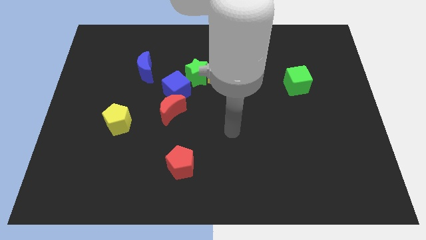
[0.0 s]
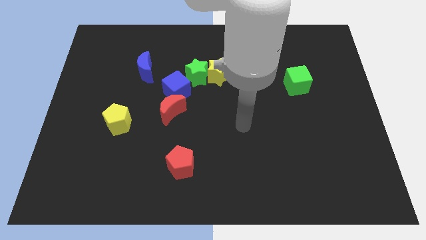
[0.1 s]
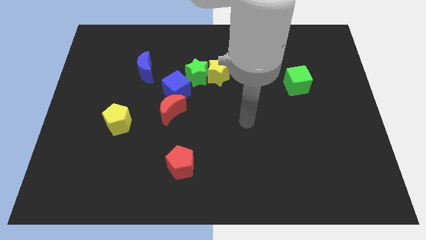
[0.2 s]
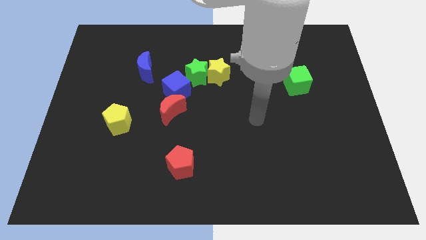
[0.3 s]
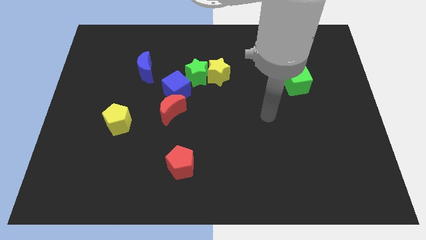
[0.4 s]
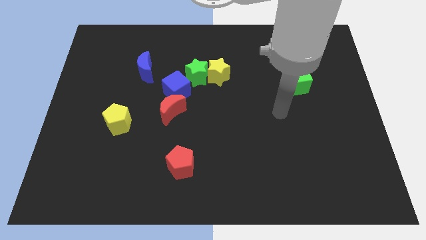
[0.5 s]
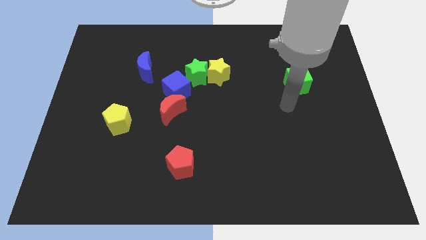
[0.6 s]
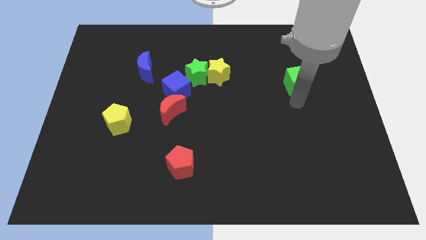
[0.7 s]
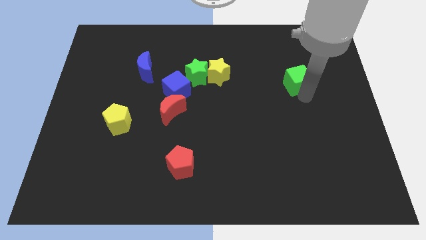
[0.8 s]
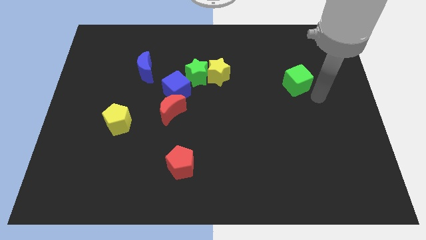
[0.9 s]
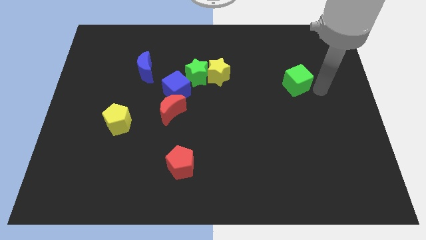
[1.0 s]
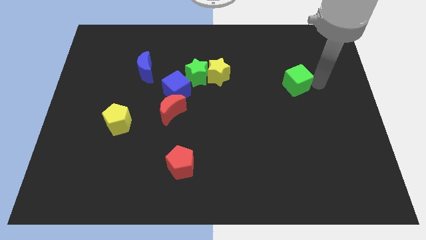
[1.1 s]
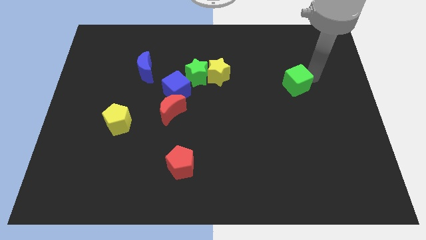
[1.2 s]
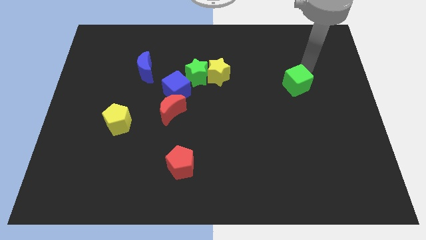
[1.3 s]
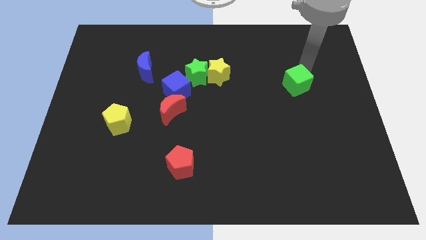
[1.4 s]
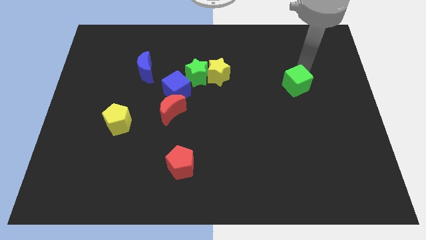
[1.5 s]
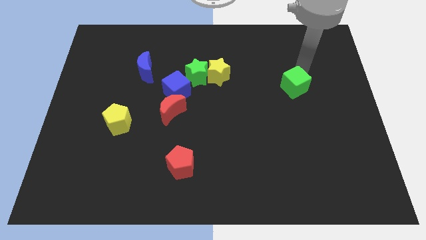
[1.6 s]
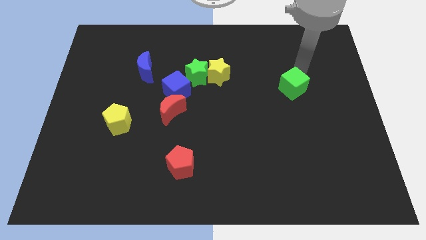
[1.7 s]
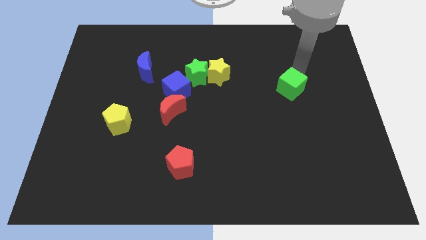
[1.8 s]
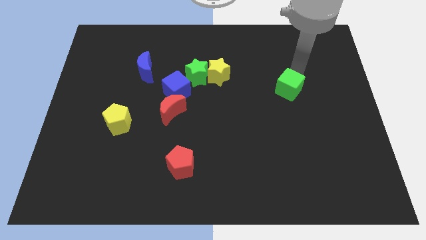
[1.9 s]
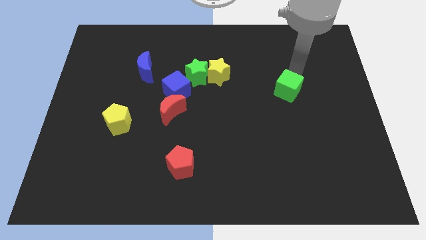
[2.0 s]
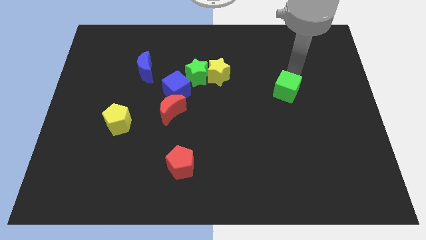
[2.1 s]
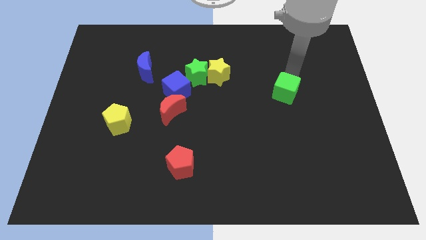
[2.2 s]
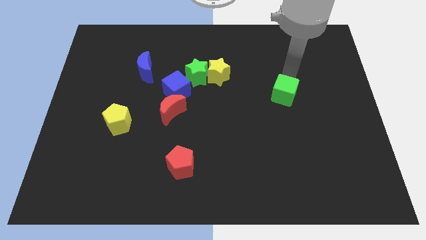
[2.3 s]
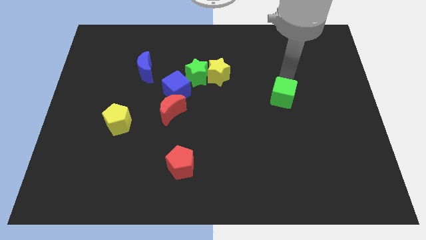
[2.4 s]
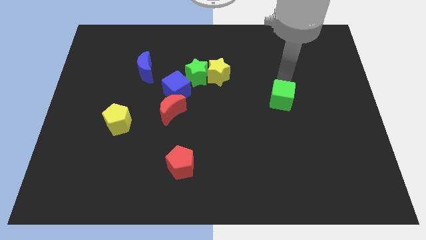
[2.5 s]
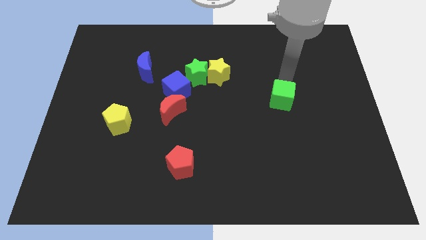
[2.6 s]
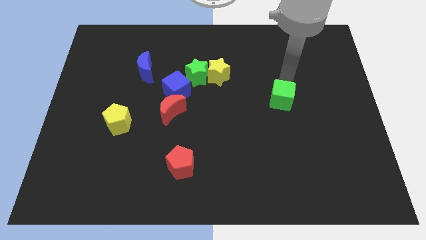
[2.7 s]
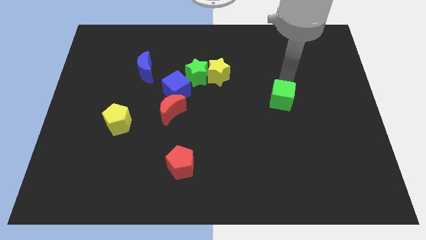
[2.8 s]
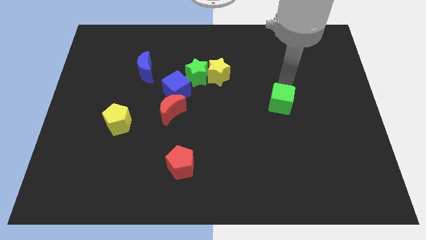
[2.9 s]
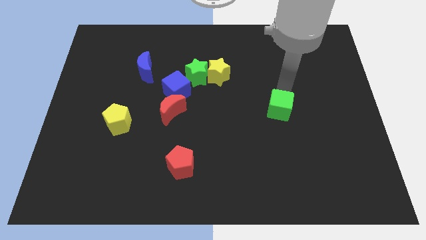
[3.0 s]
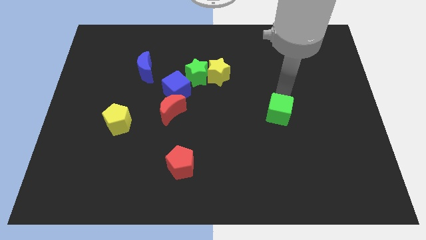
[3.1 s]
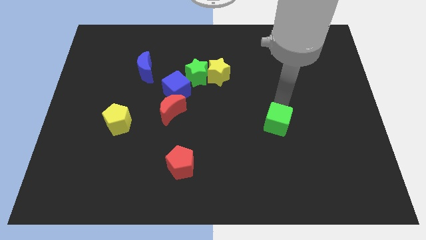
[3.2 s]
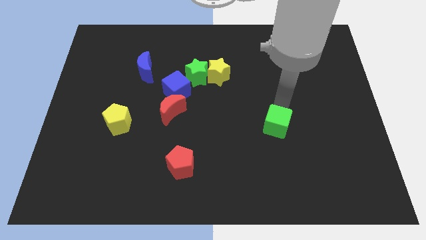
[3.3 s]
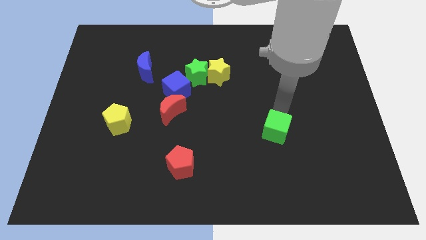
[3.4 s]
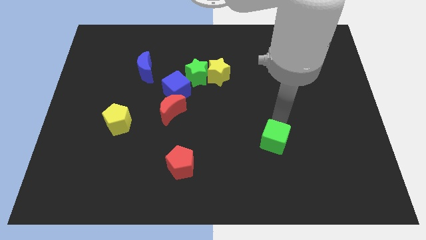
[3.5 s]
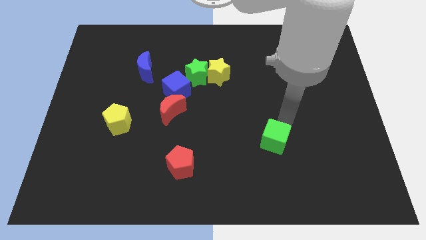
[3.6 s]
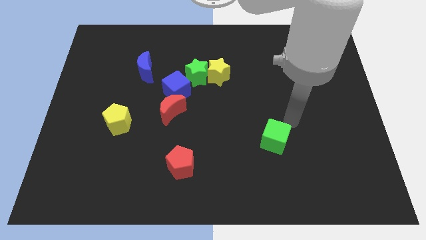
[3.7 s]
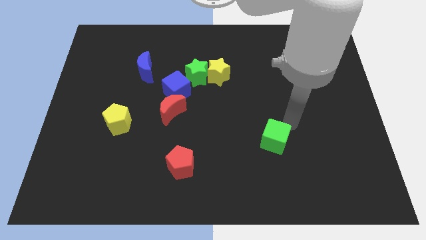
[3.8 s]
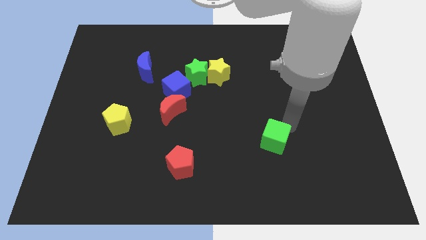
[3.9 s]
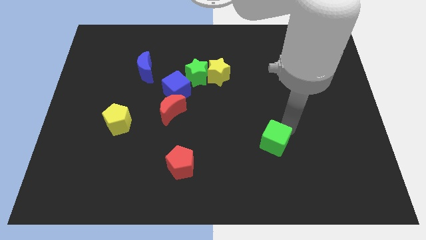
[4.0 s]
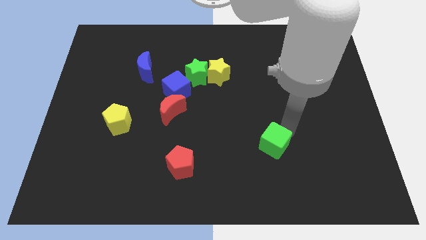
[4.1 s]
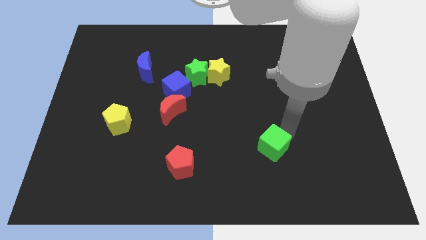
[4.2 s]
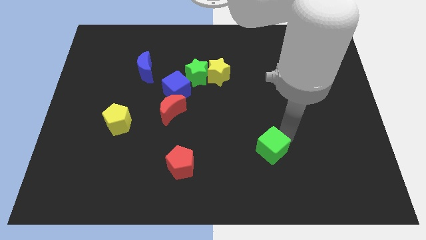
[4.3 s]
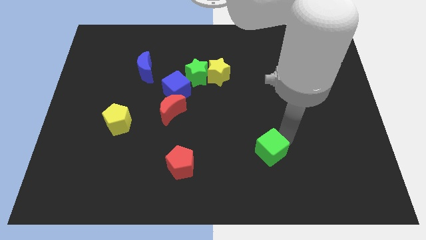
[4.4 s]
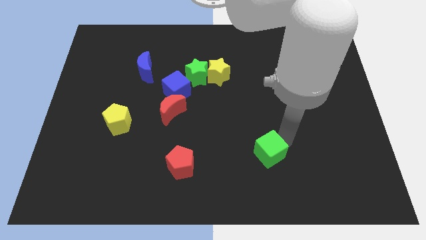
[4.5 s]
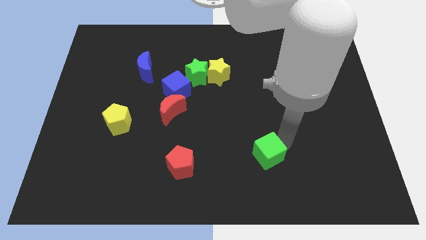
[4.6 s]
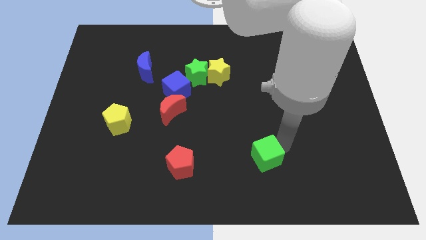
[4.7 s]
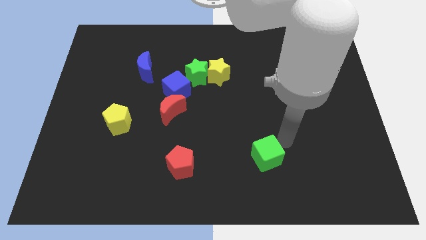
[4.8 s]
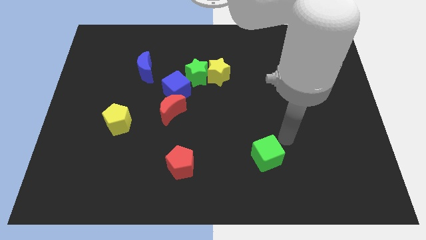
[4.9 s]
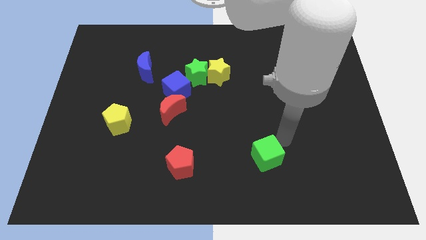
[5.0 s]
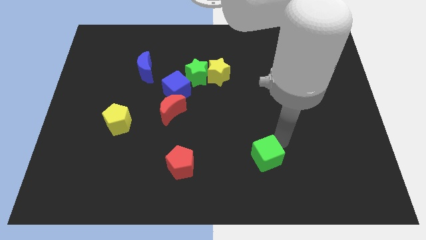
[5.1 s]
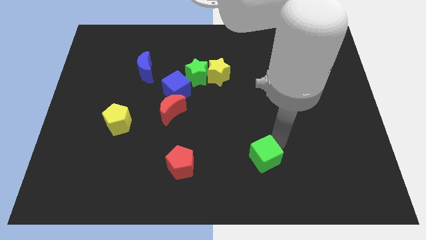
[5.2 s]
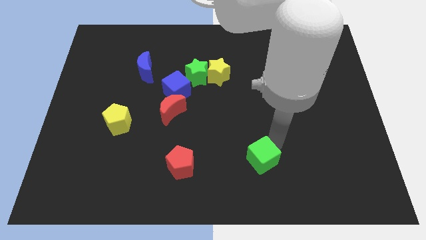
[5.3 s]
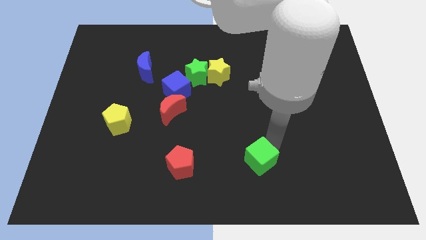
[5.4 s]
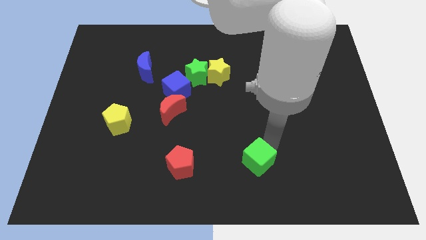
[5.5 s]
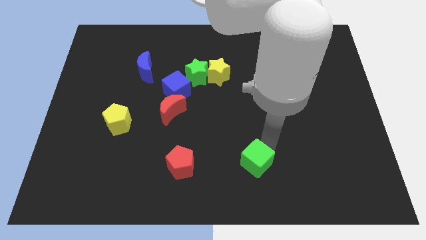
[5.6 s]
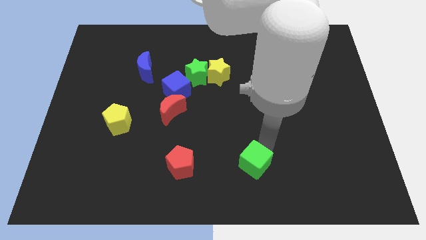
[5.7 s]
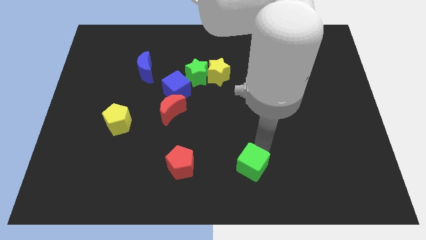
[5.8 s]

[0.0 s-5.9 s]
put the green cube to the bottom

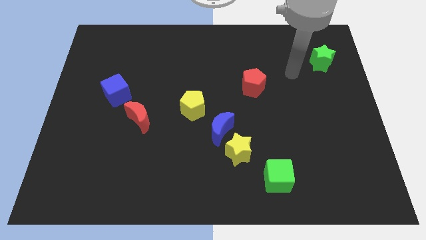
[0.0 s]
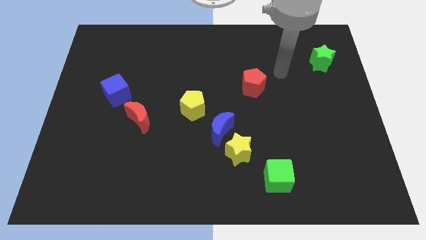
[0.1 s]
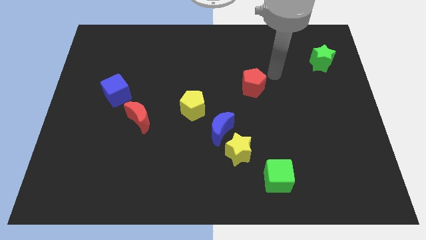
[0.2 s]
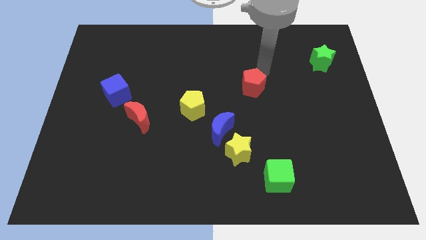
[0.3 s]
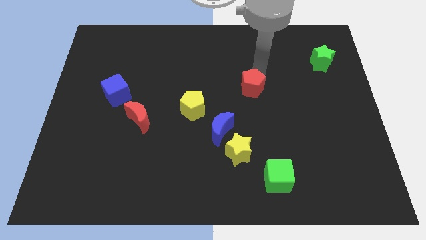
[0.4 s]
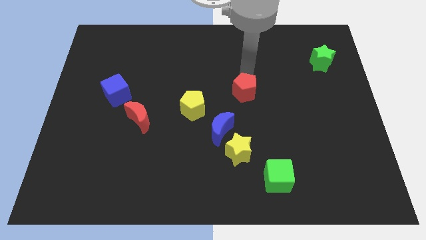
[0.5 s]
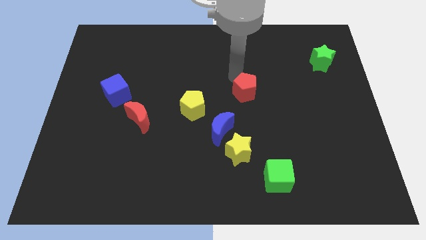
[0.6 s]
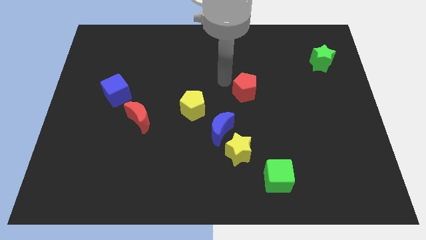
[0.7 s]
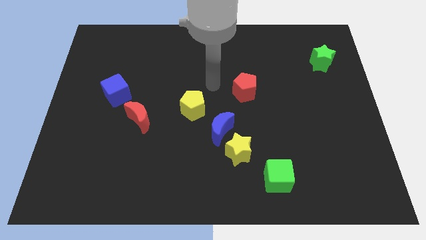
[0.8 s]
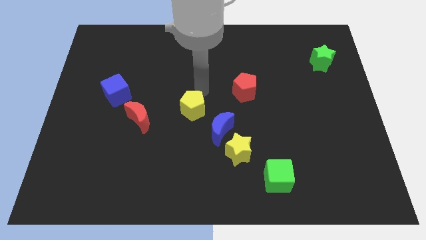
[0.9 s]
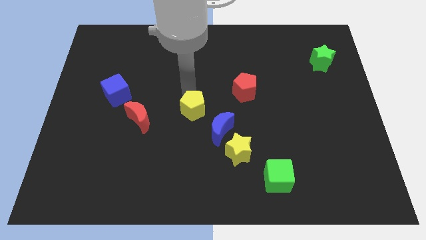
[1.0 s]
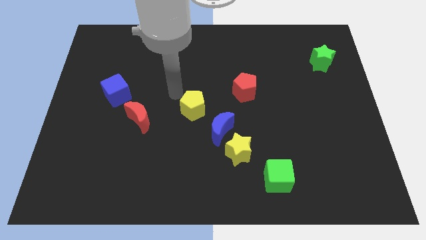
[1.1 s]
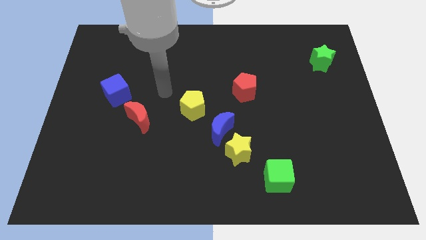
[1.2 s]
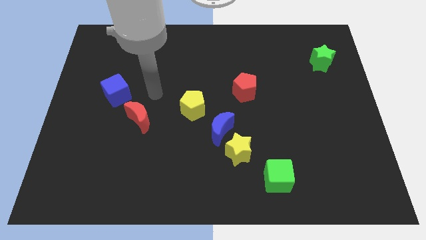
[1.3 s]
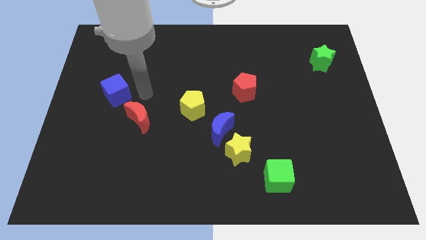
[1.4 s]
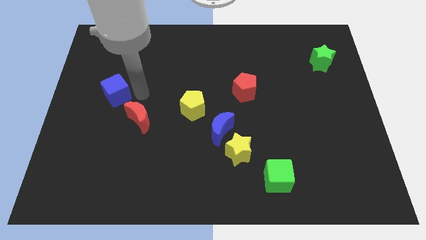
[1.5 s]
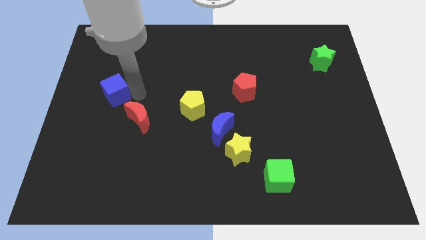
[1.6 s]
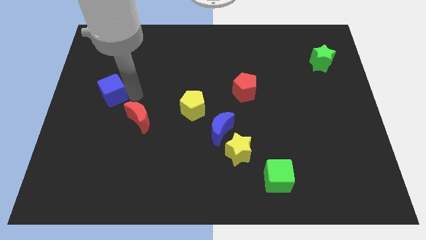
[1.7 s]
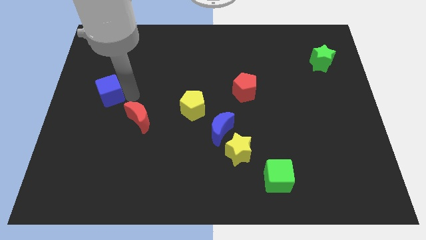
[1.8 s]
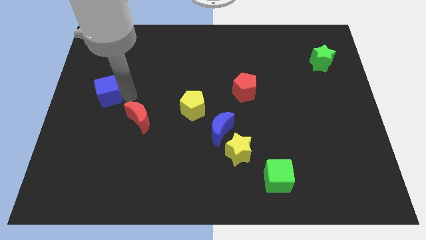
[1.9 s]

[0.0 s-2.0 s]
slide the blue cube to the left side
